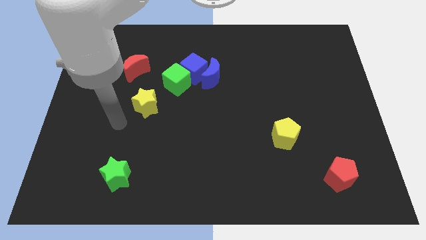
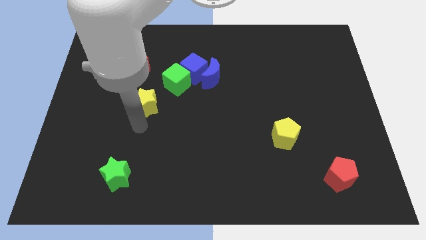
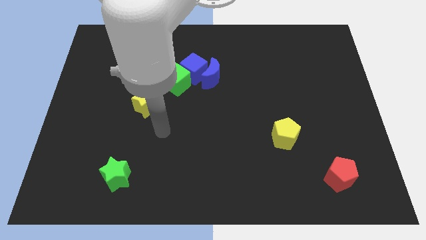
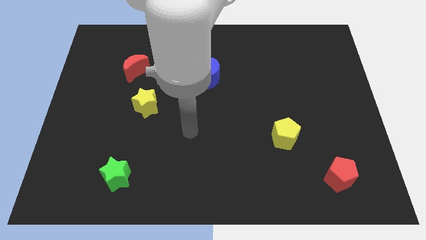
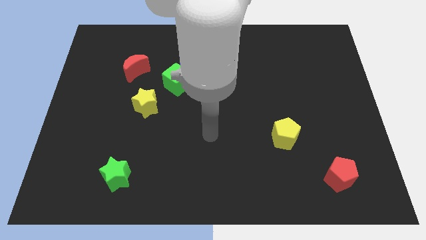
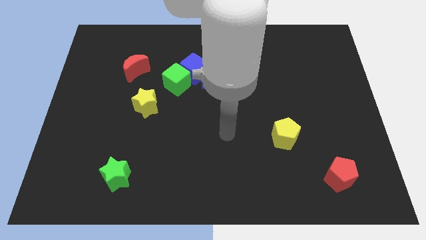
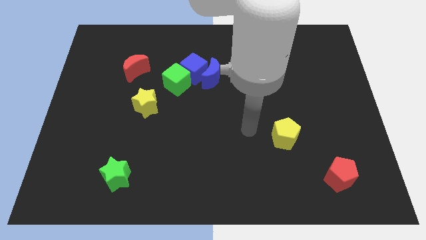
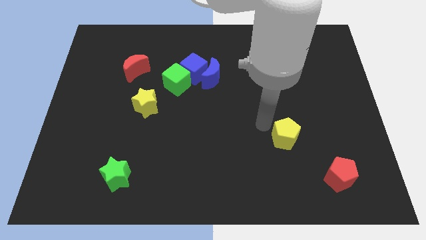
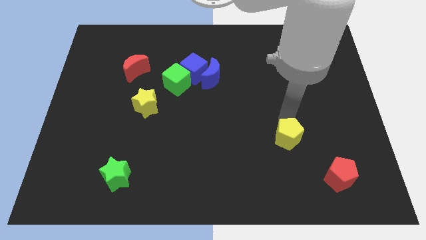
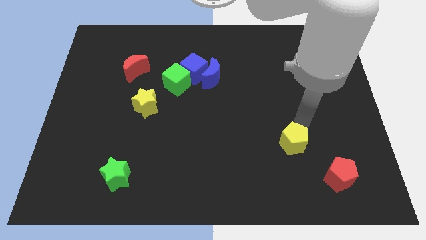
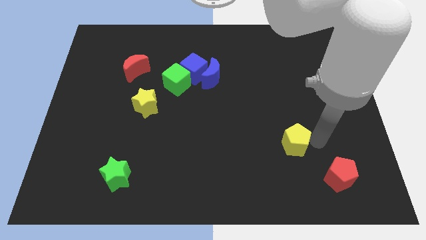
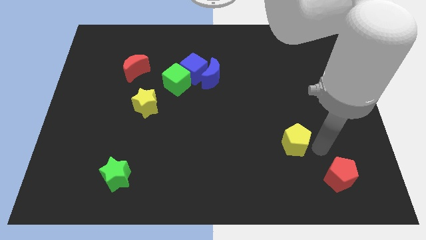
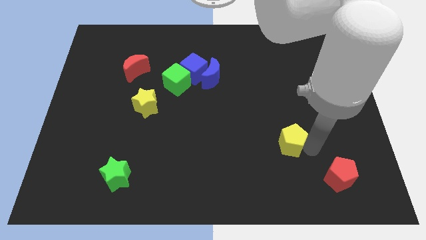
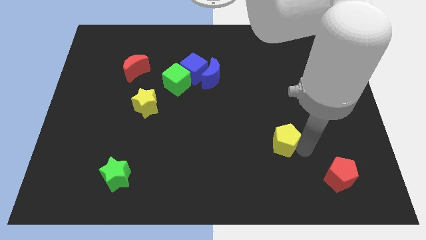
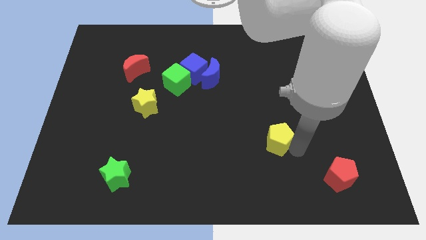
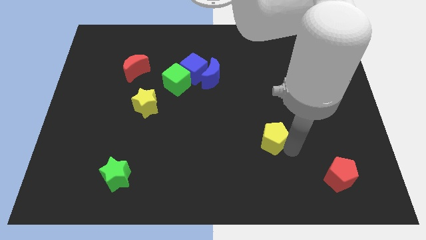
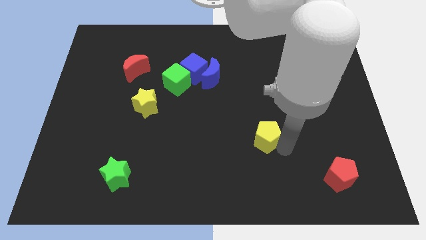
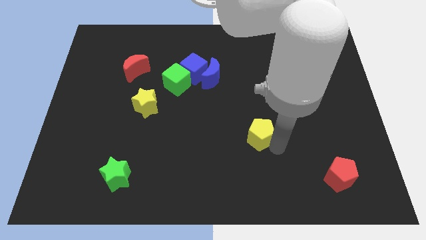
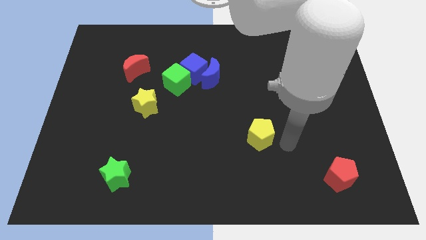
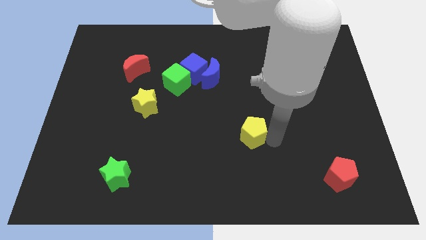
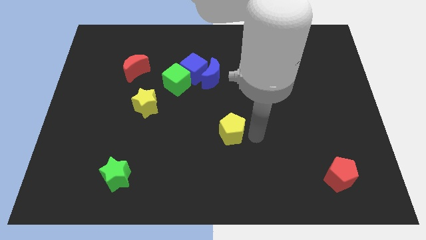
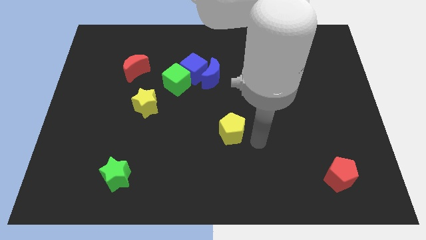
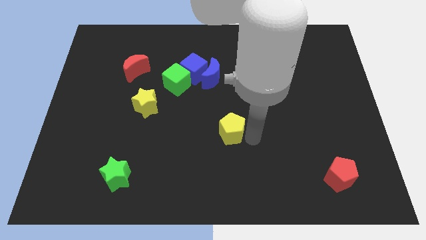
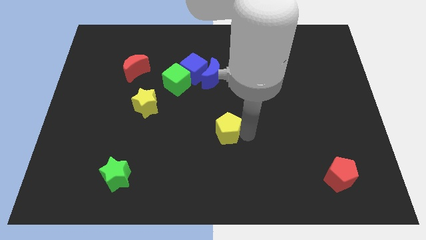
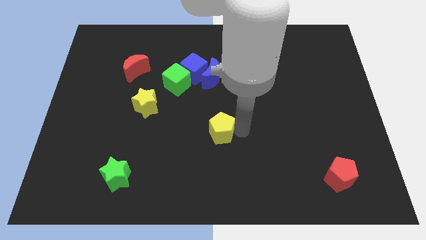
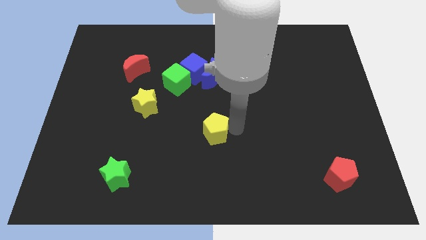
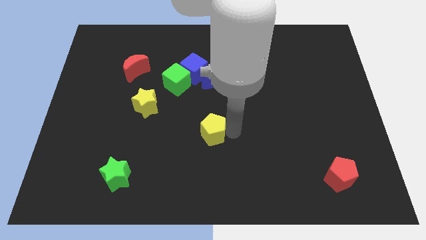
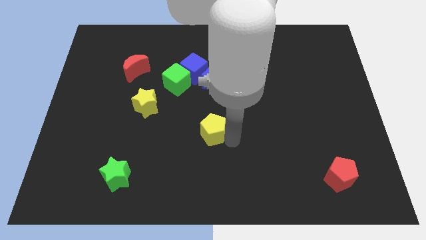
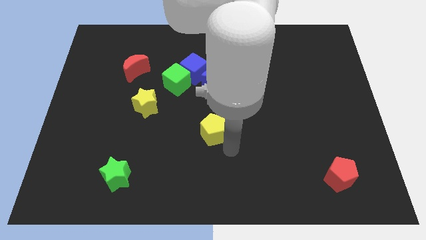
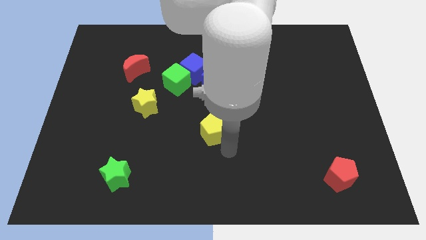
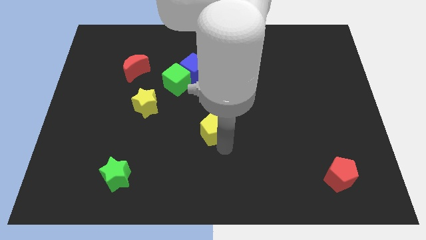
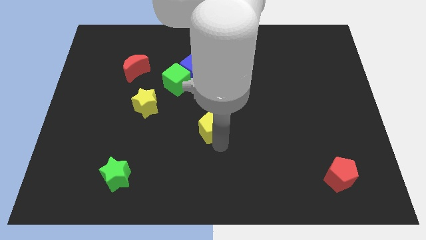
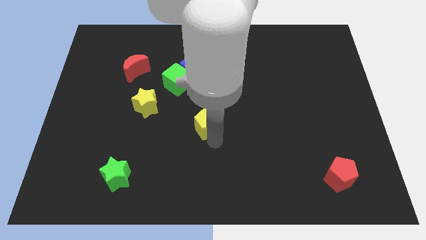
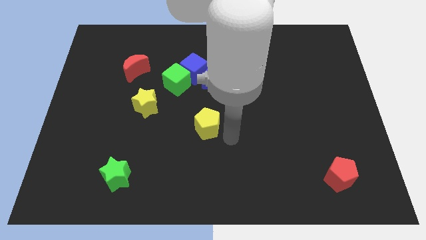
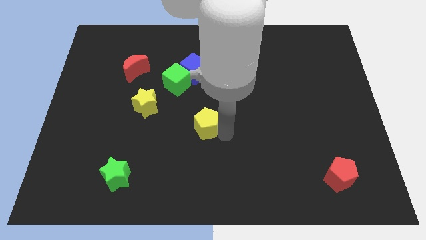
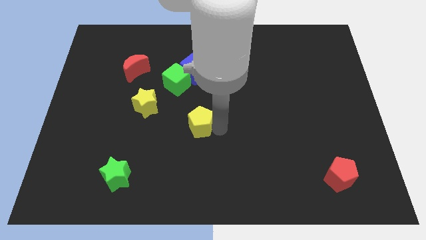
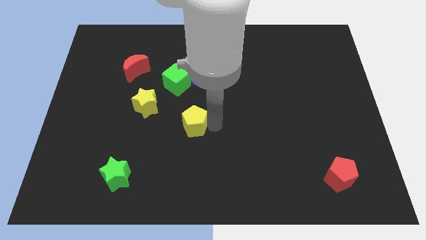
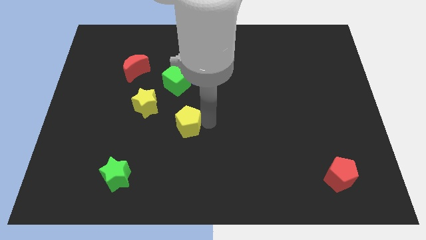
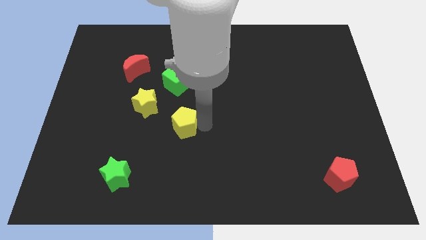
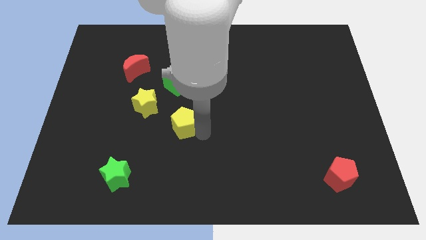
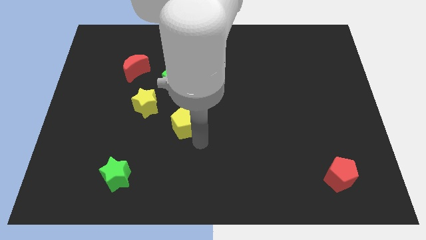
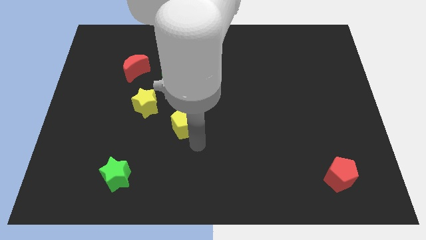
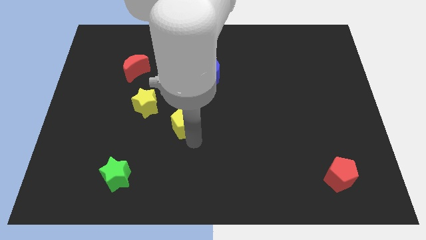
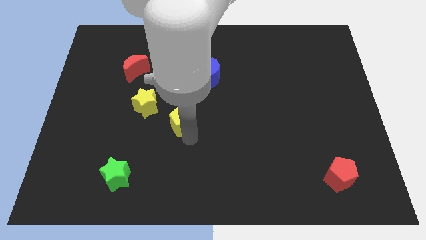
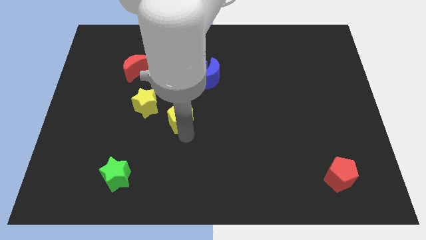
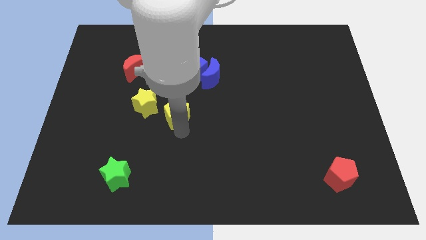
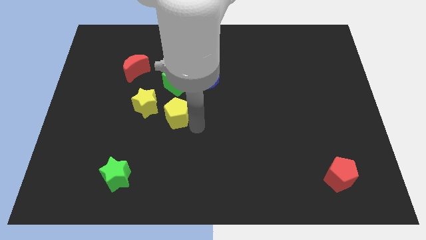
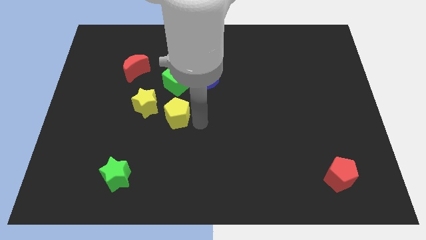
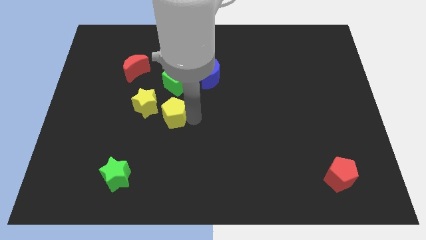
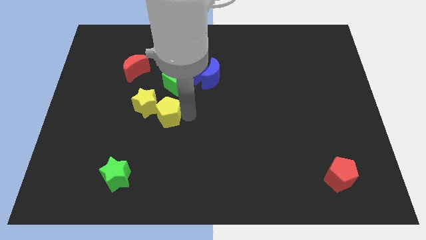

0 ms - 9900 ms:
put the yellow pentagon towards the yellow star

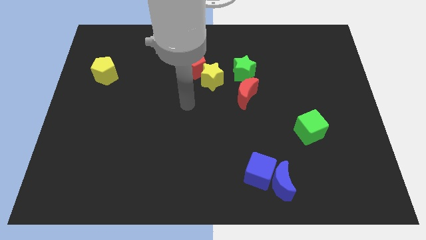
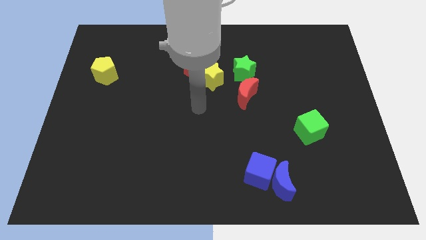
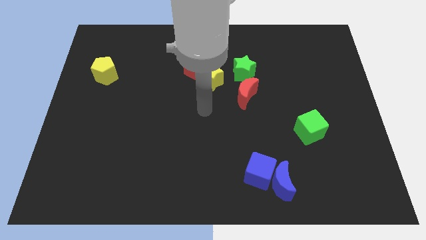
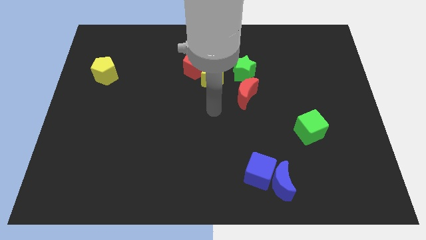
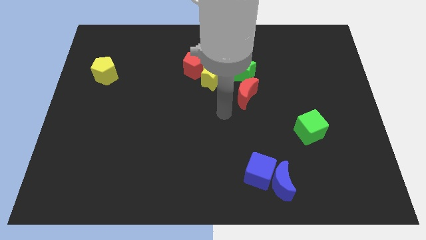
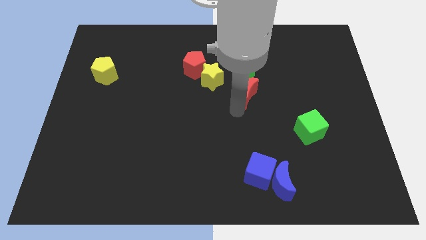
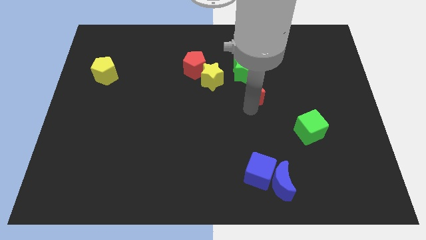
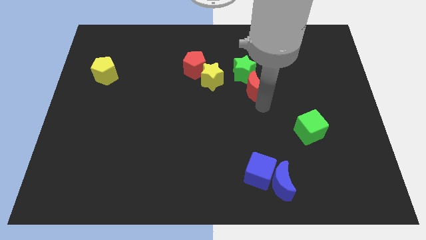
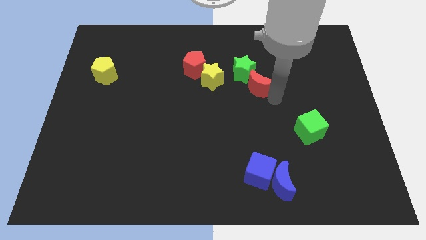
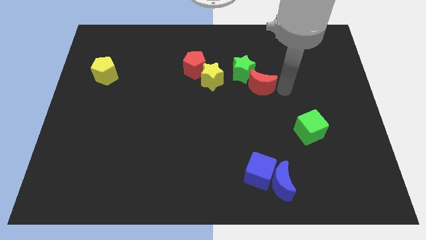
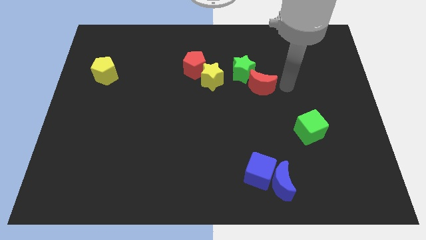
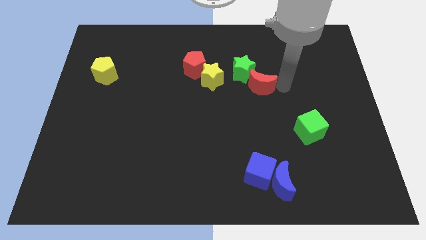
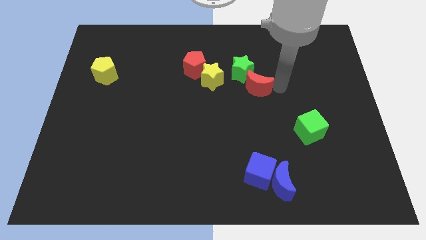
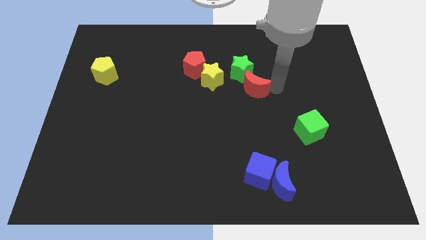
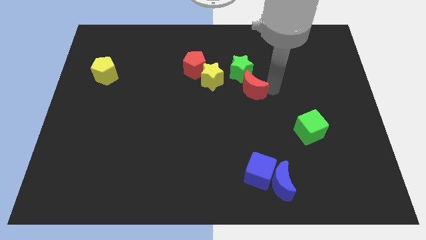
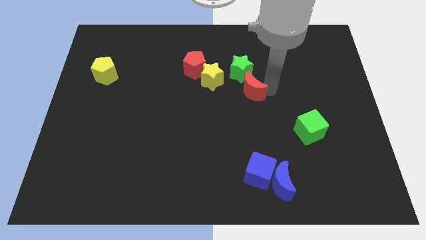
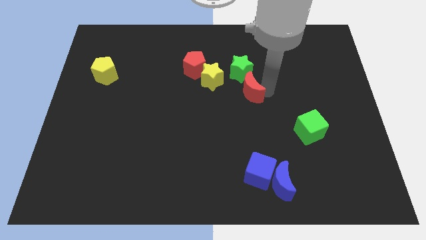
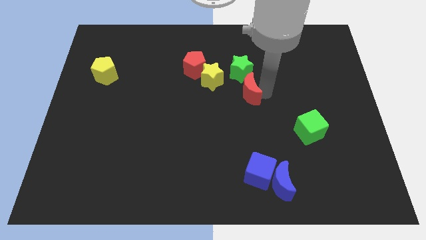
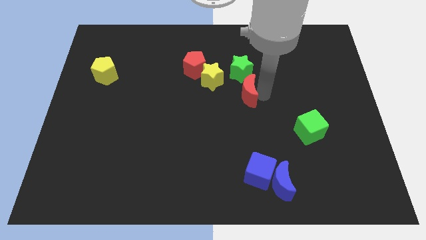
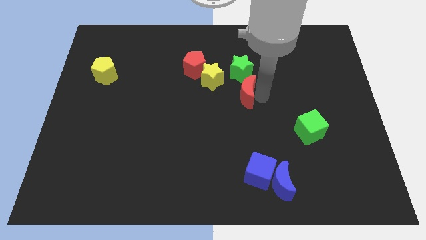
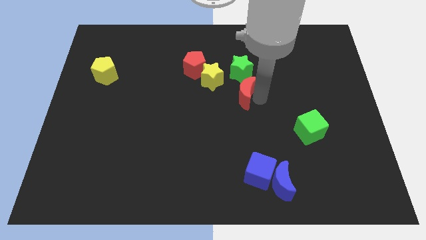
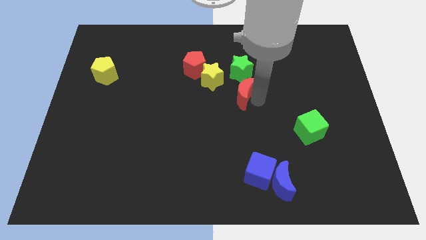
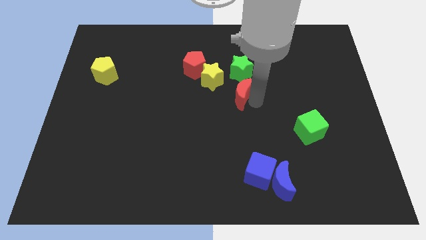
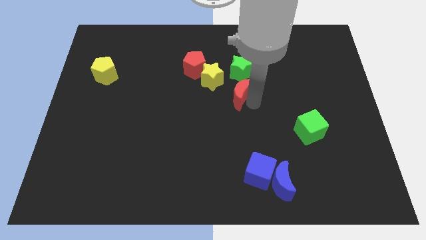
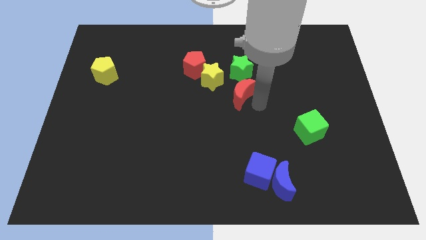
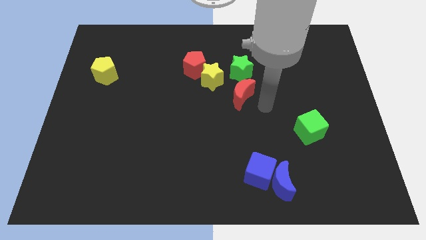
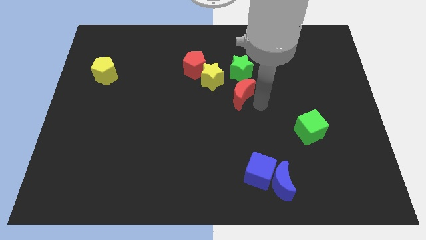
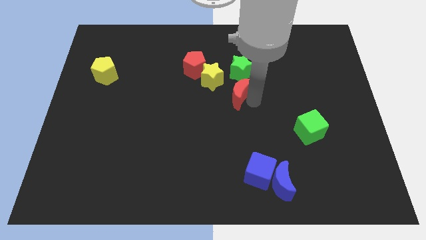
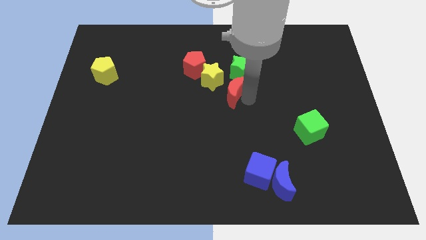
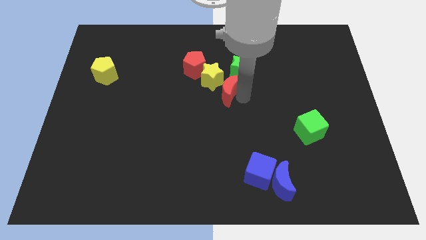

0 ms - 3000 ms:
push the red moon close to the yellow star
